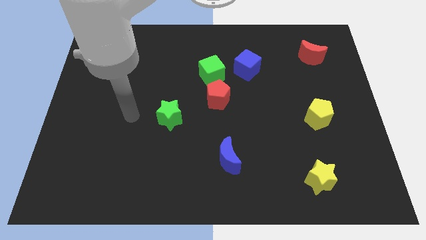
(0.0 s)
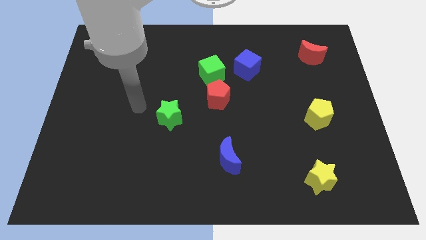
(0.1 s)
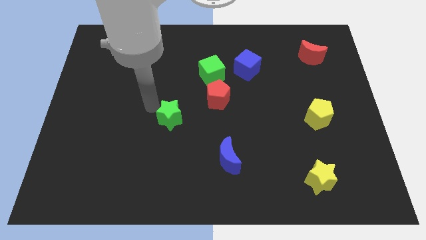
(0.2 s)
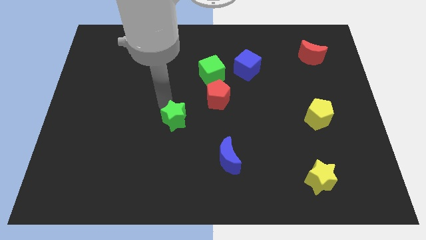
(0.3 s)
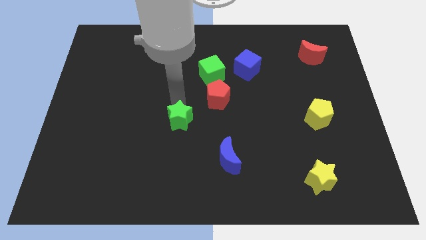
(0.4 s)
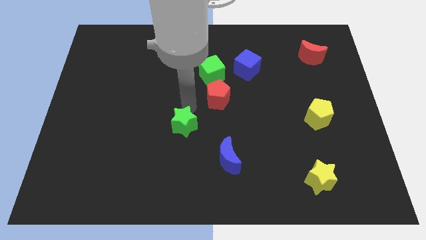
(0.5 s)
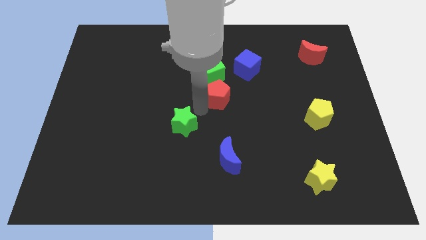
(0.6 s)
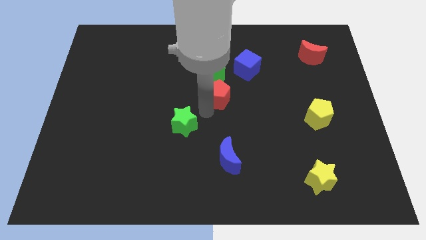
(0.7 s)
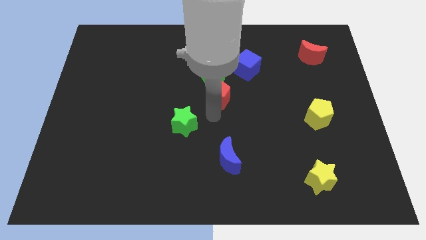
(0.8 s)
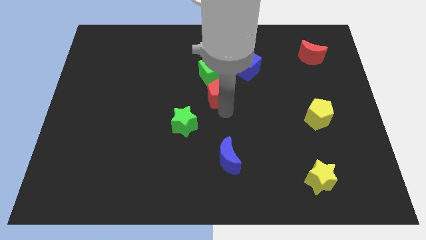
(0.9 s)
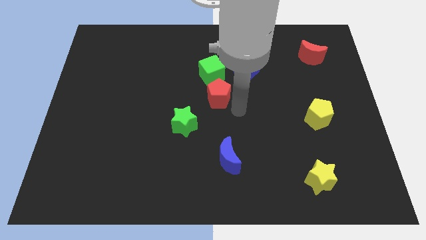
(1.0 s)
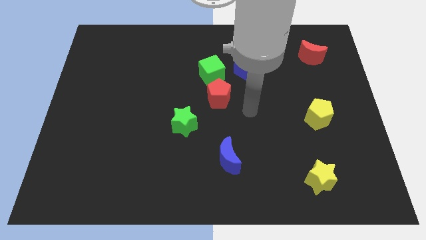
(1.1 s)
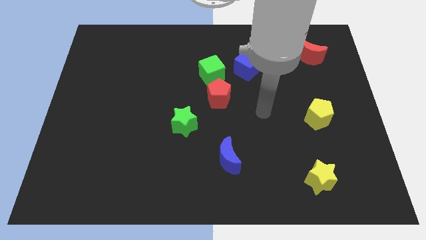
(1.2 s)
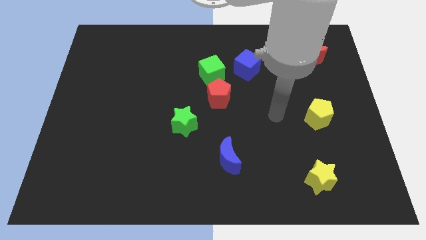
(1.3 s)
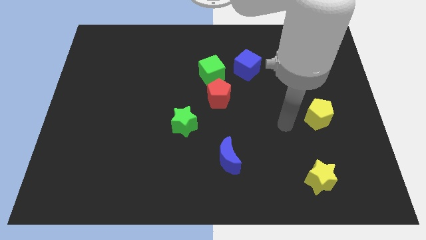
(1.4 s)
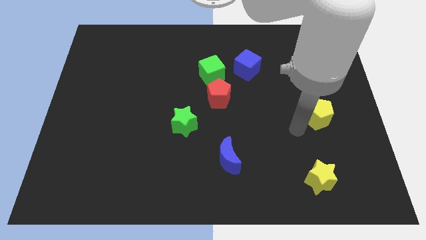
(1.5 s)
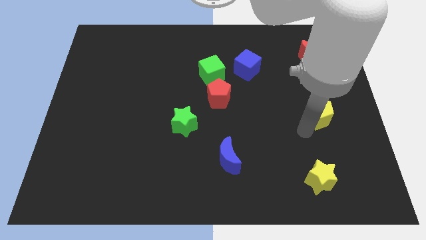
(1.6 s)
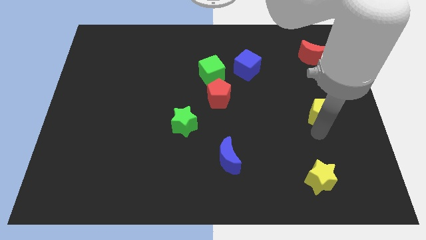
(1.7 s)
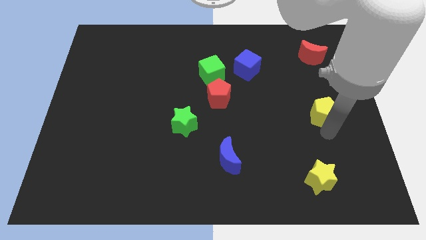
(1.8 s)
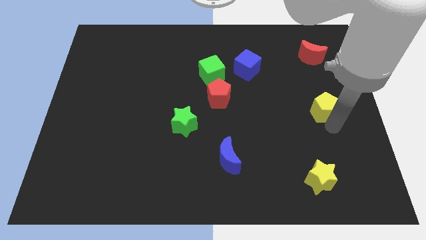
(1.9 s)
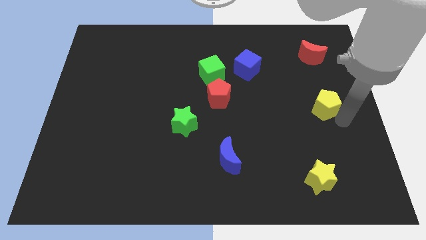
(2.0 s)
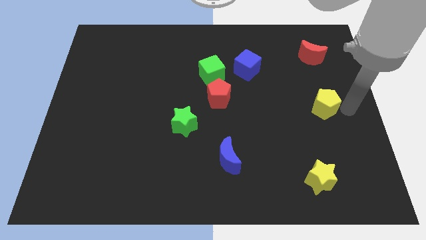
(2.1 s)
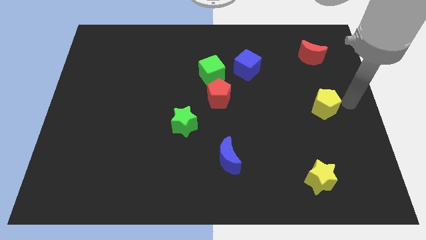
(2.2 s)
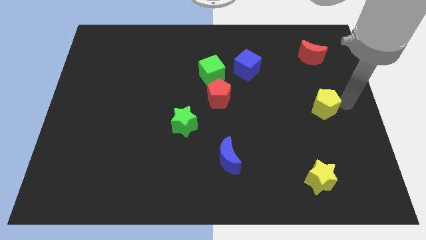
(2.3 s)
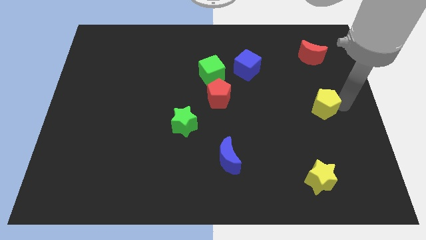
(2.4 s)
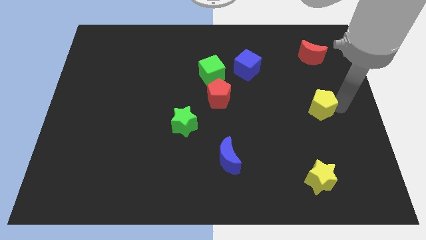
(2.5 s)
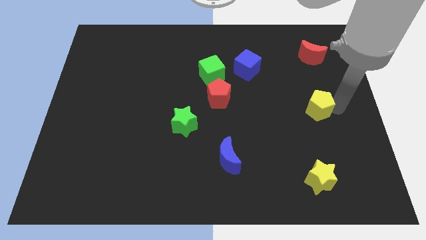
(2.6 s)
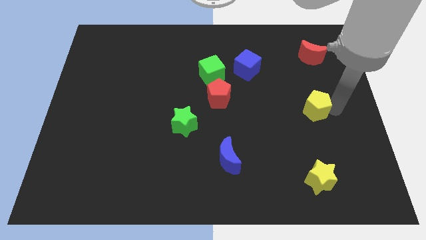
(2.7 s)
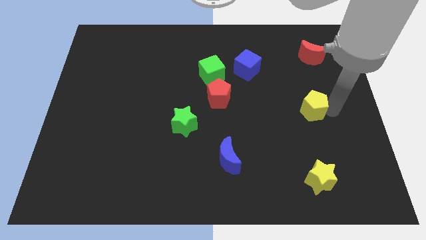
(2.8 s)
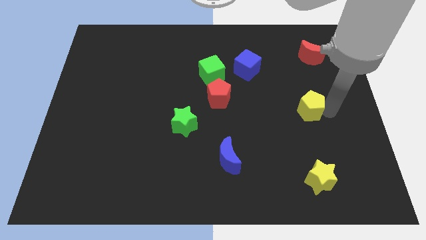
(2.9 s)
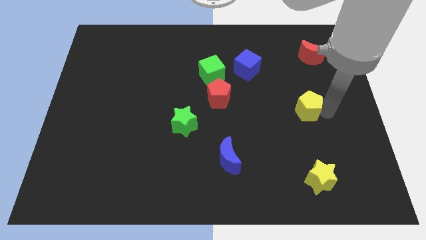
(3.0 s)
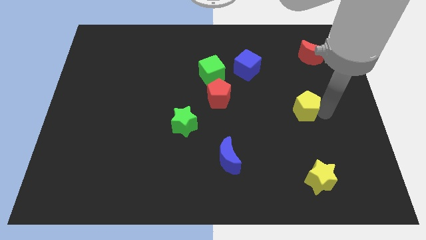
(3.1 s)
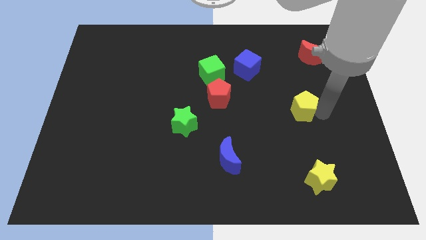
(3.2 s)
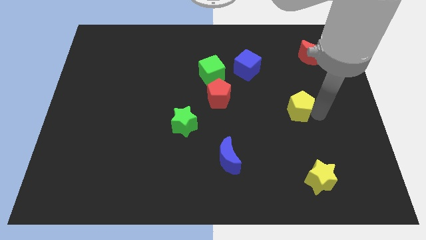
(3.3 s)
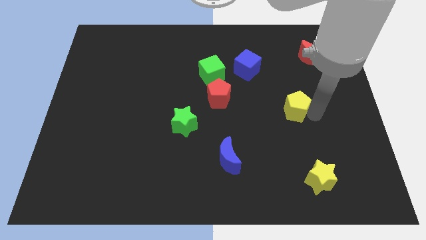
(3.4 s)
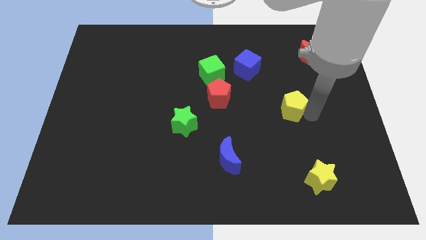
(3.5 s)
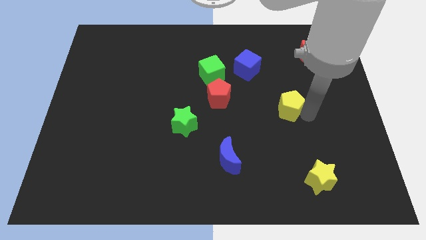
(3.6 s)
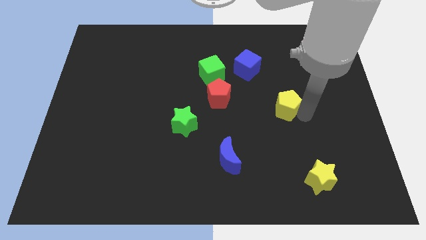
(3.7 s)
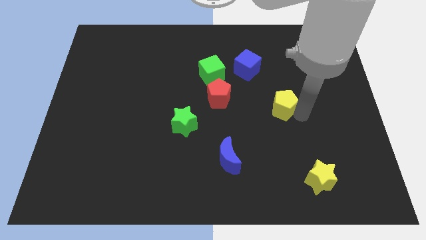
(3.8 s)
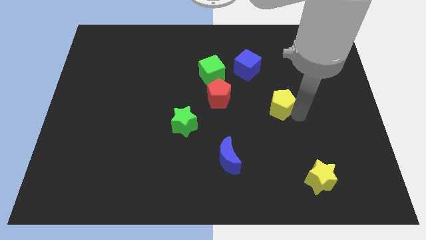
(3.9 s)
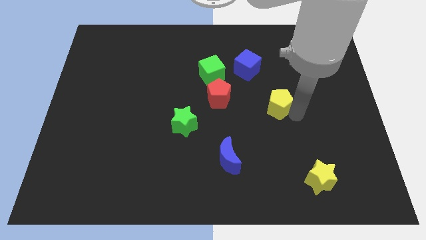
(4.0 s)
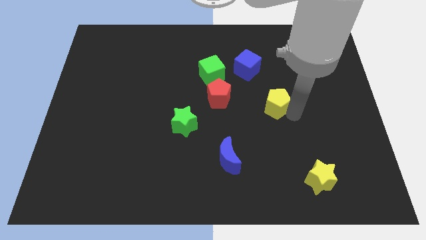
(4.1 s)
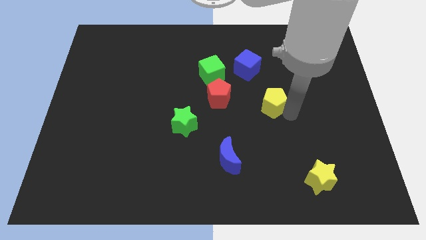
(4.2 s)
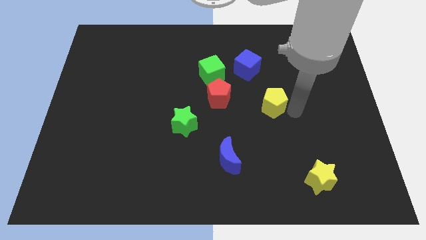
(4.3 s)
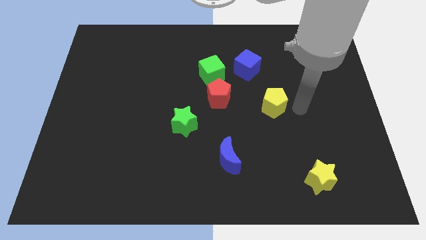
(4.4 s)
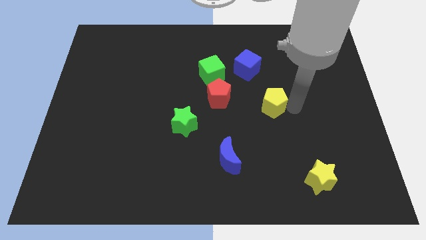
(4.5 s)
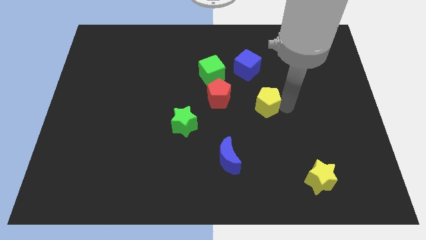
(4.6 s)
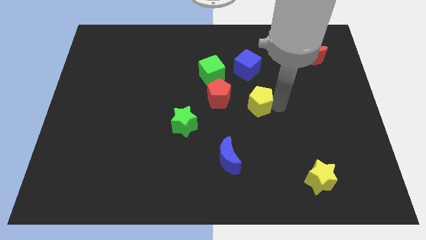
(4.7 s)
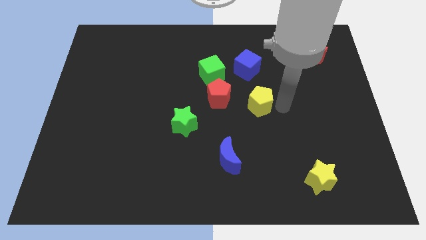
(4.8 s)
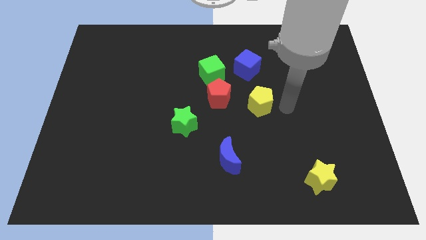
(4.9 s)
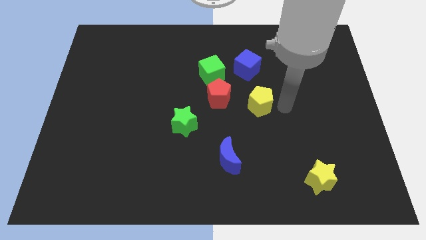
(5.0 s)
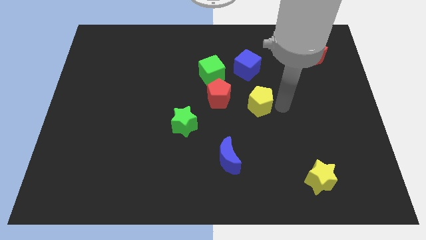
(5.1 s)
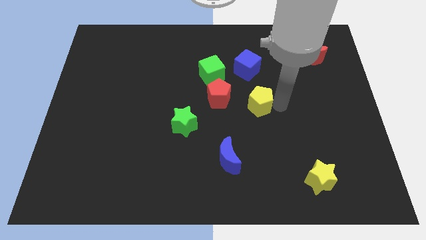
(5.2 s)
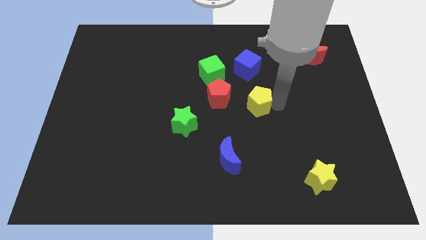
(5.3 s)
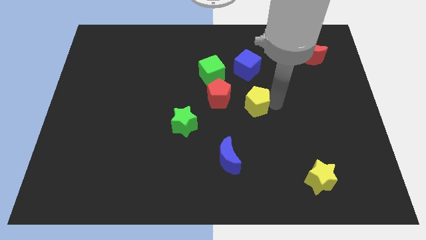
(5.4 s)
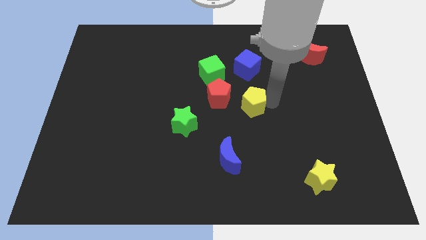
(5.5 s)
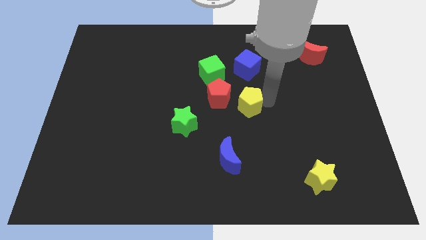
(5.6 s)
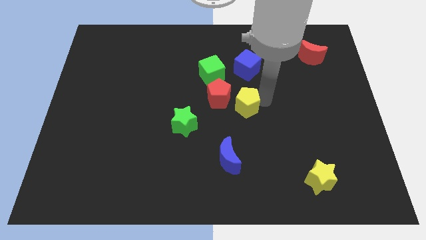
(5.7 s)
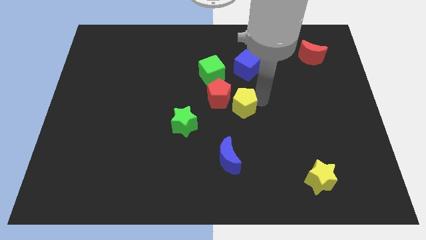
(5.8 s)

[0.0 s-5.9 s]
move the yellow pentagon next to the red pentagon

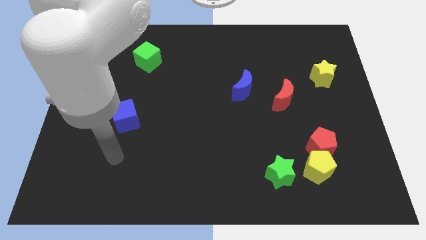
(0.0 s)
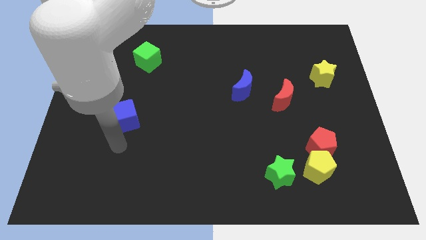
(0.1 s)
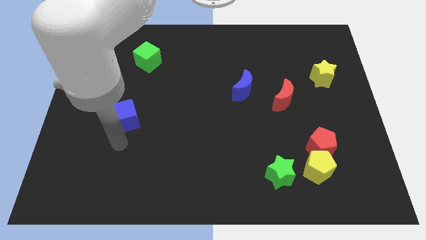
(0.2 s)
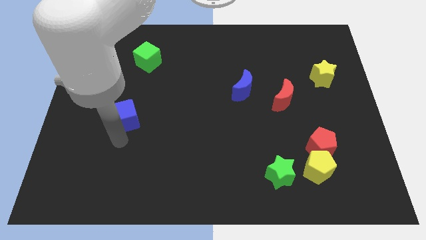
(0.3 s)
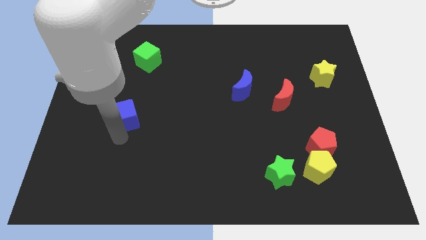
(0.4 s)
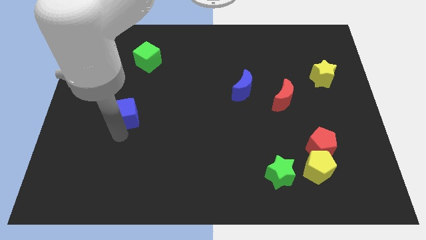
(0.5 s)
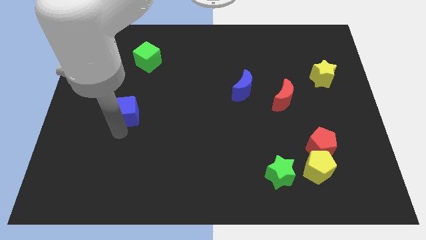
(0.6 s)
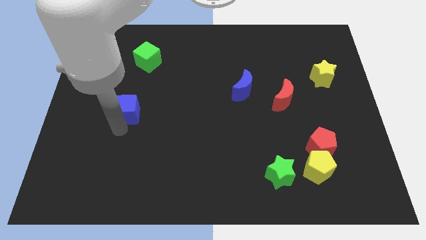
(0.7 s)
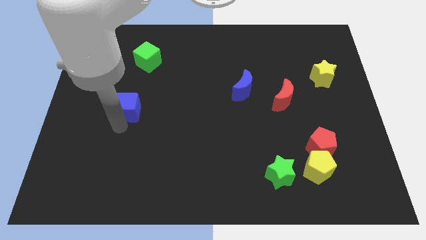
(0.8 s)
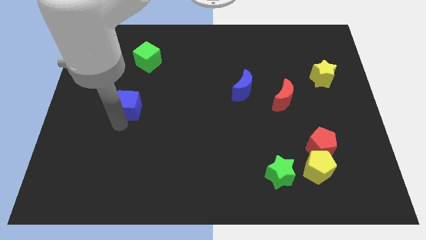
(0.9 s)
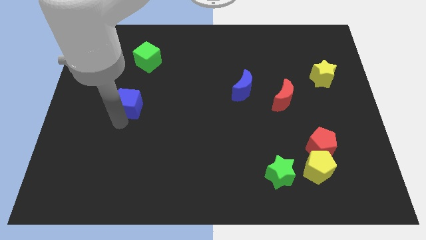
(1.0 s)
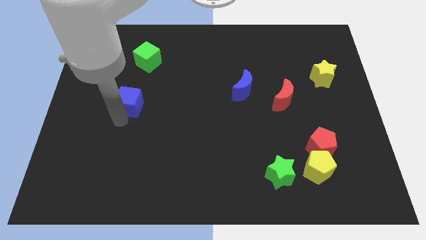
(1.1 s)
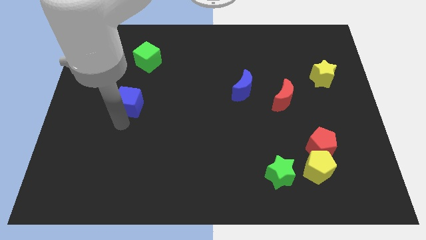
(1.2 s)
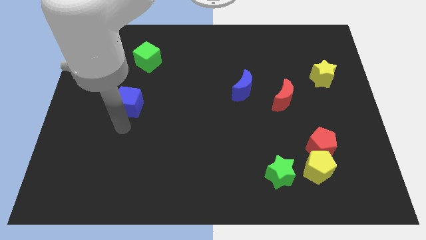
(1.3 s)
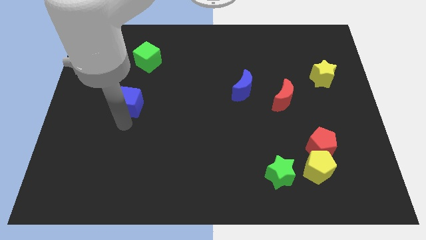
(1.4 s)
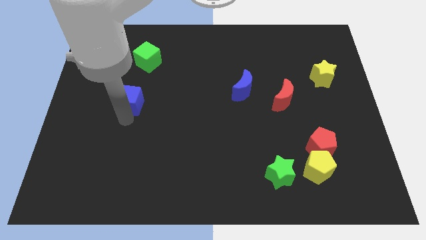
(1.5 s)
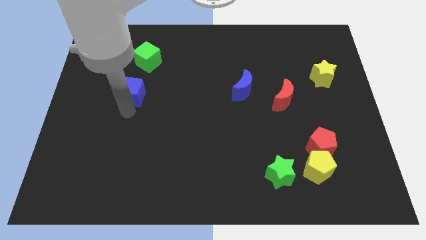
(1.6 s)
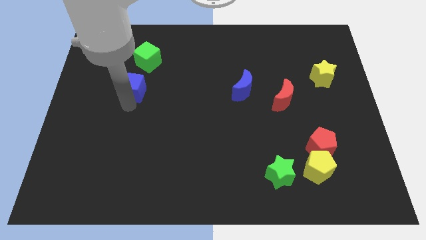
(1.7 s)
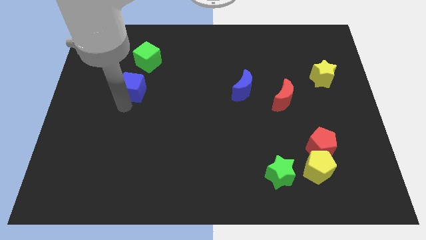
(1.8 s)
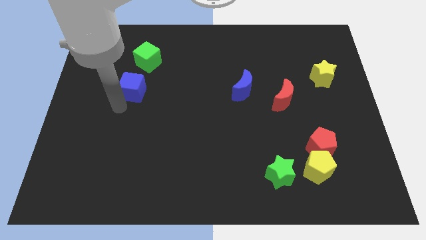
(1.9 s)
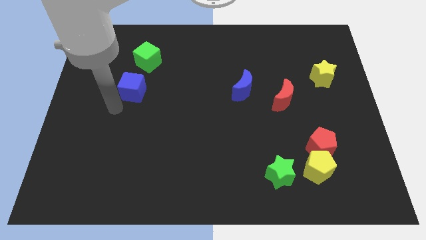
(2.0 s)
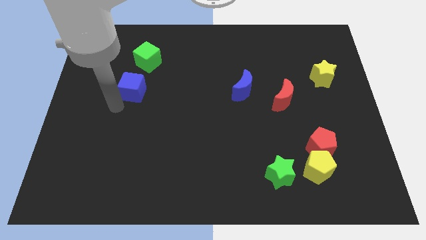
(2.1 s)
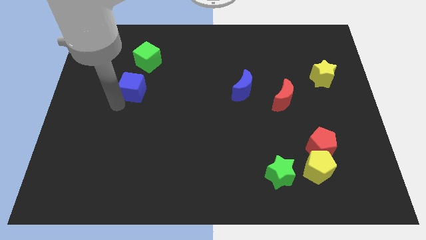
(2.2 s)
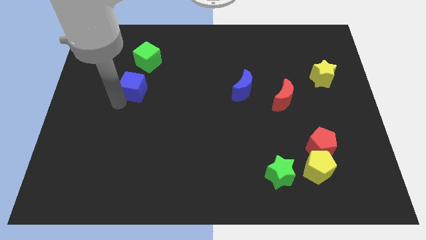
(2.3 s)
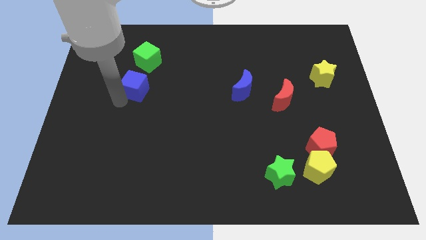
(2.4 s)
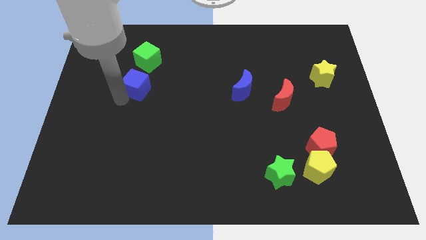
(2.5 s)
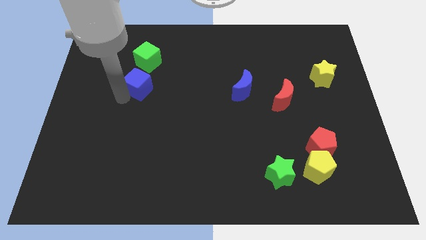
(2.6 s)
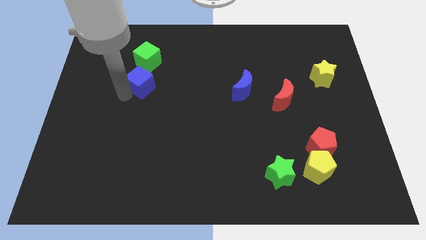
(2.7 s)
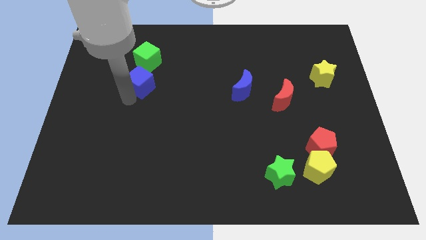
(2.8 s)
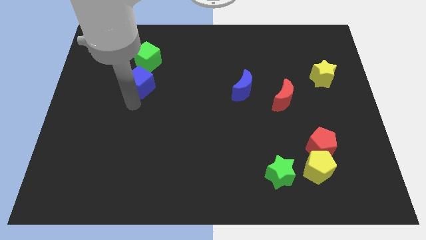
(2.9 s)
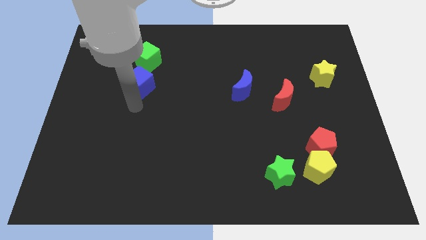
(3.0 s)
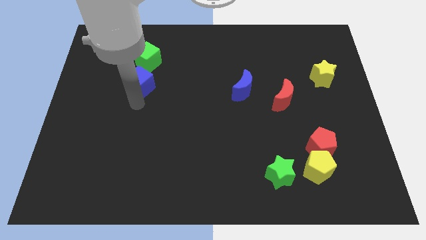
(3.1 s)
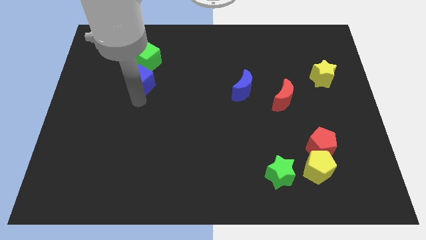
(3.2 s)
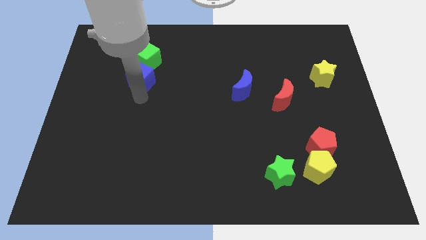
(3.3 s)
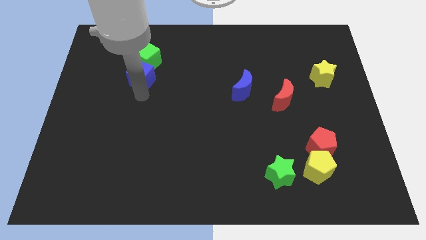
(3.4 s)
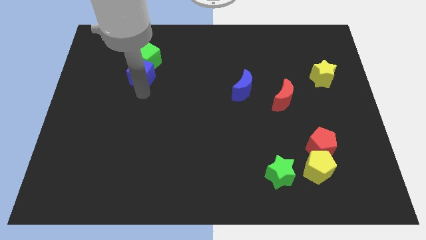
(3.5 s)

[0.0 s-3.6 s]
push the blue cube to the green cube
